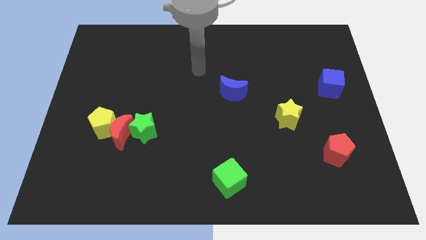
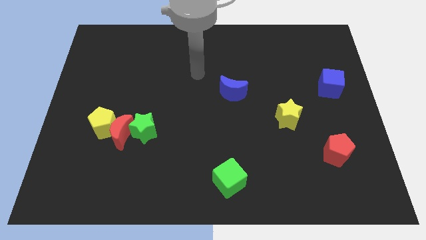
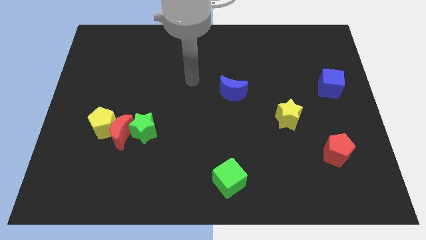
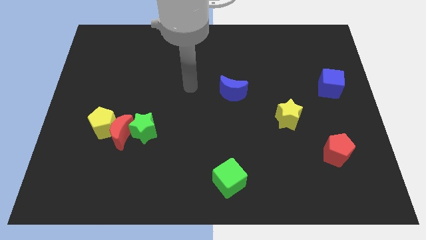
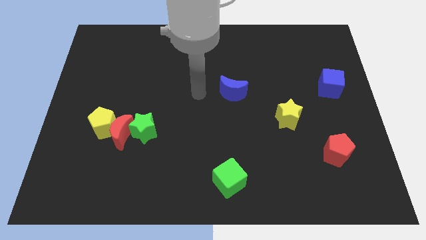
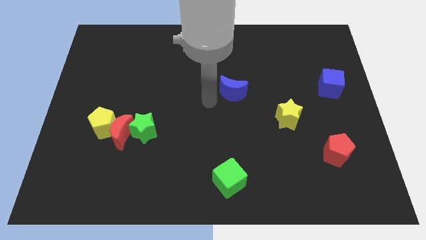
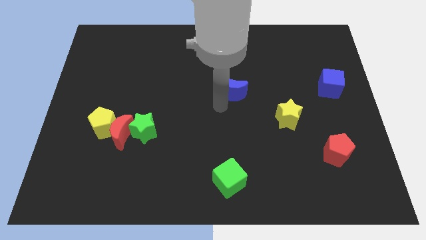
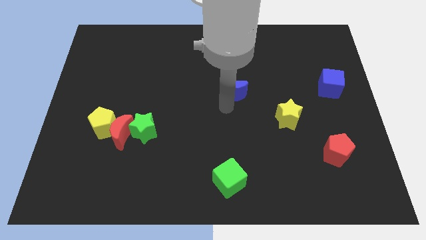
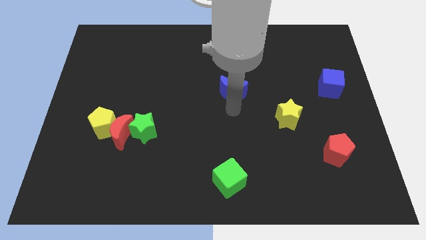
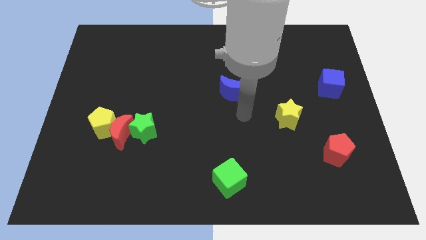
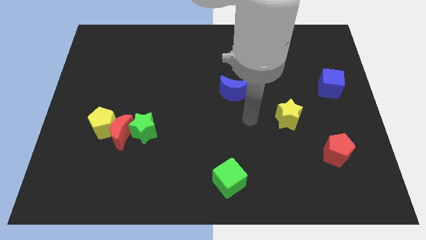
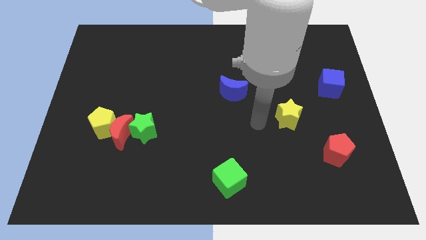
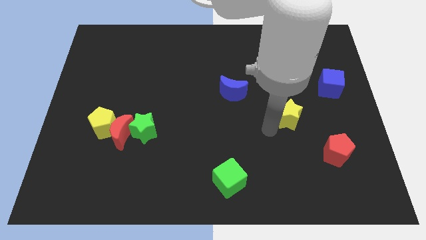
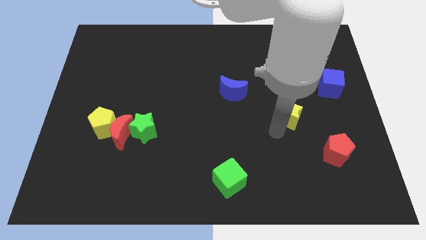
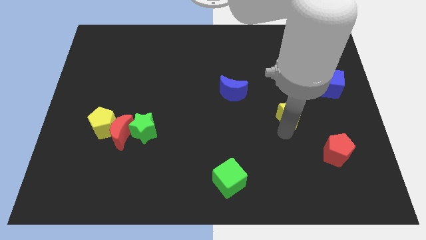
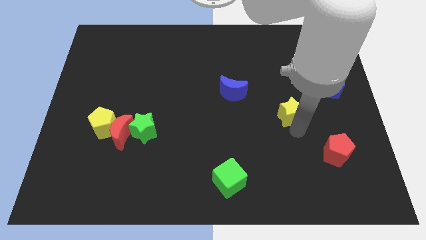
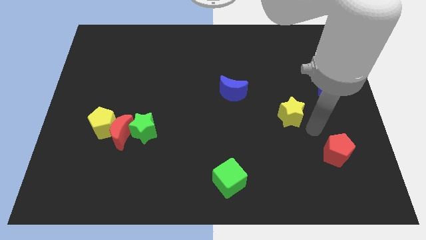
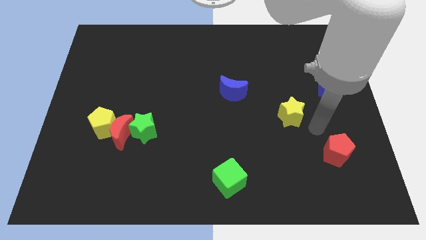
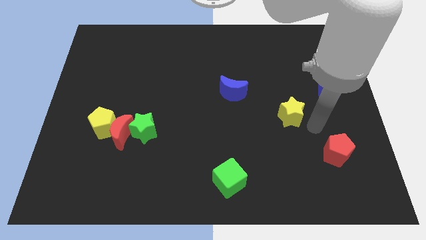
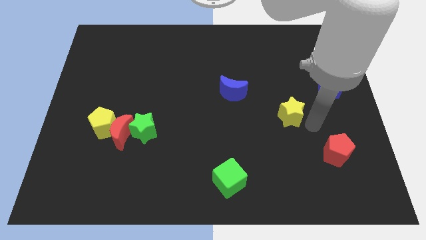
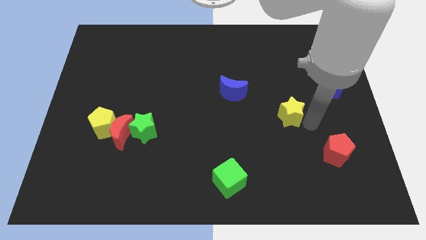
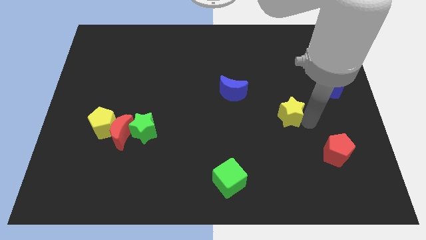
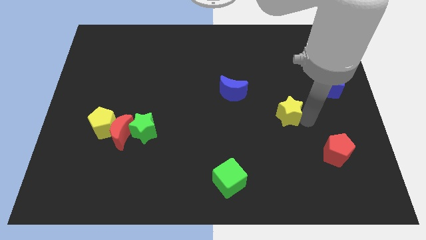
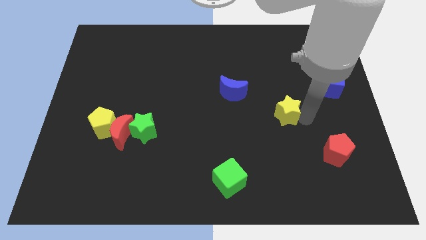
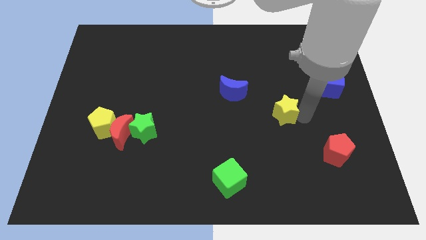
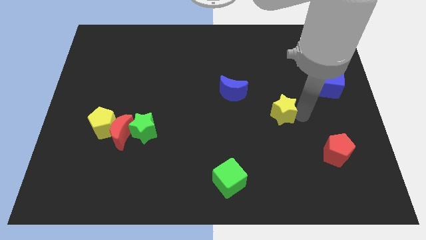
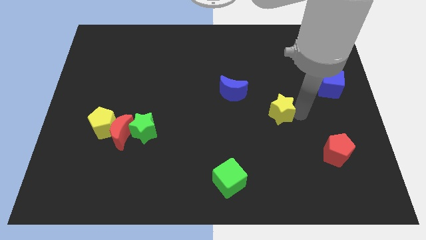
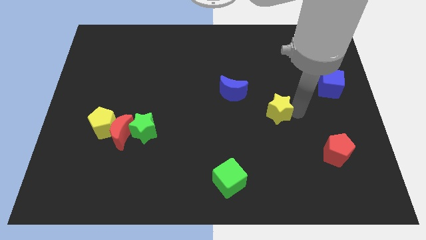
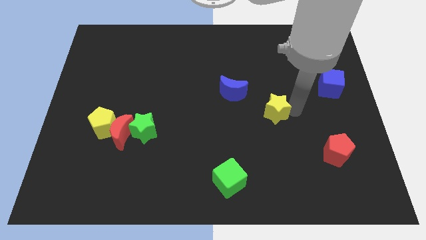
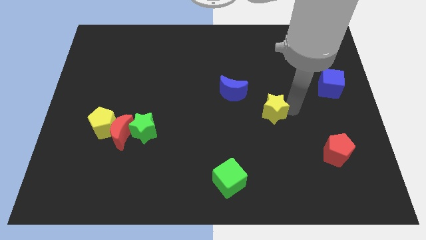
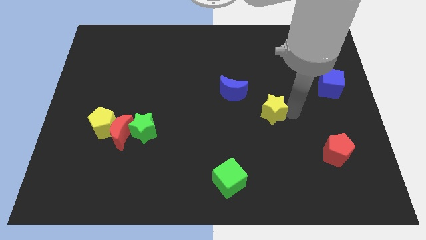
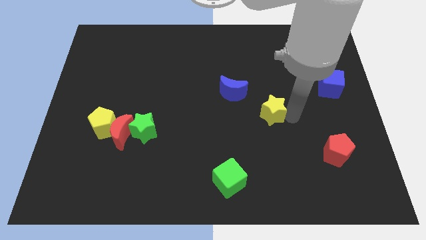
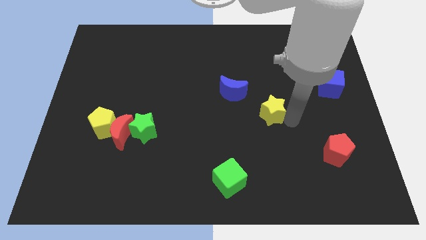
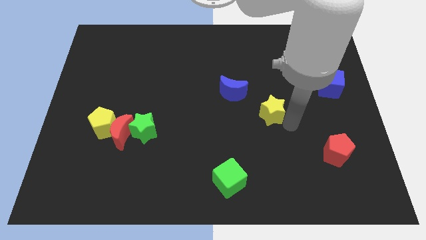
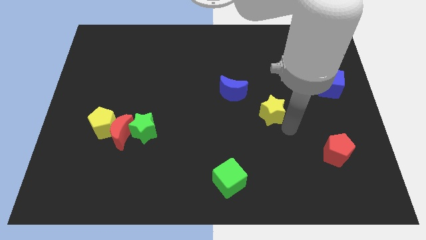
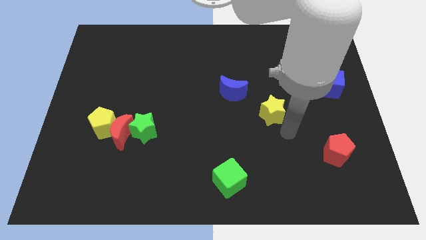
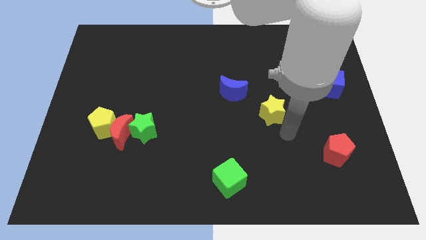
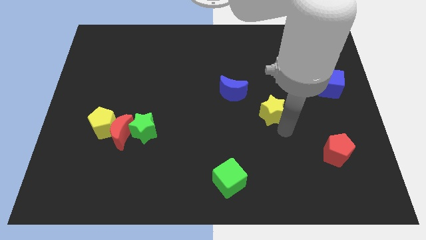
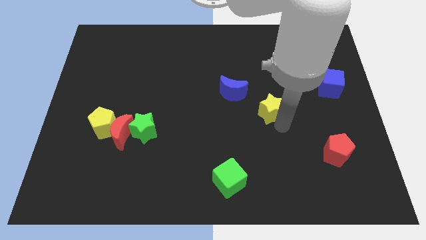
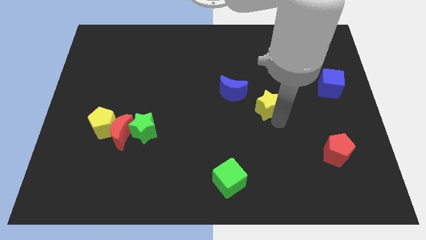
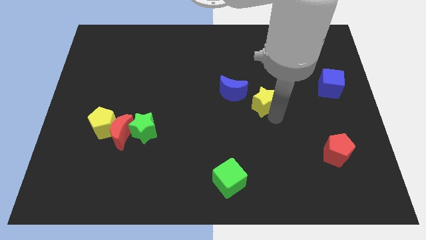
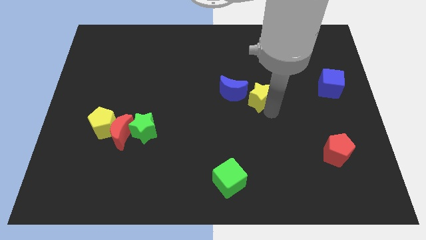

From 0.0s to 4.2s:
slide the yellow star up and left a little bit

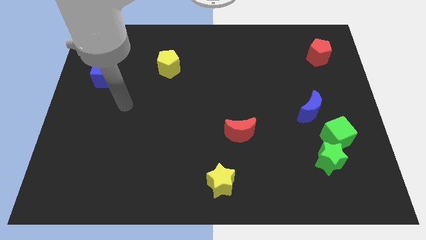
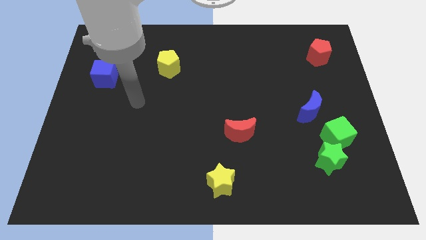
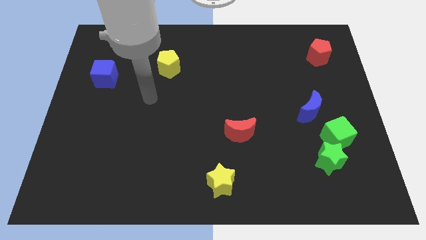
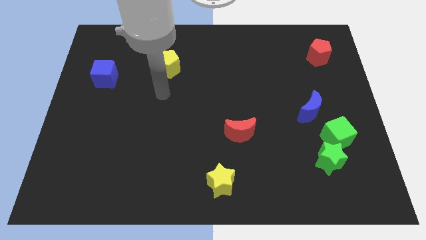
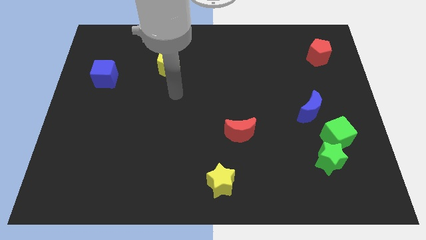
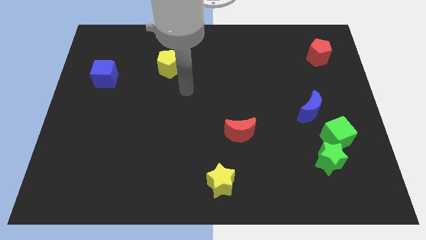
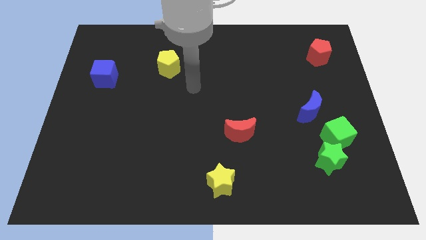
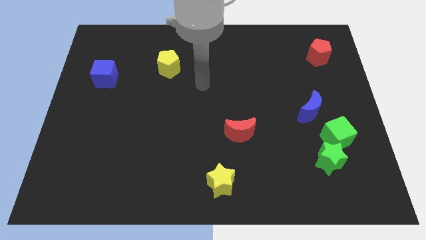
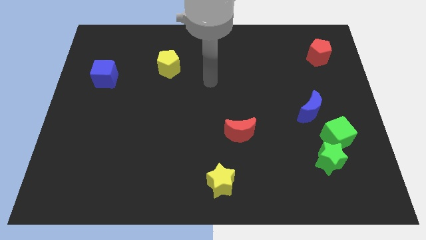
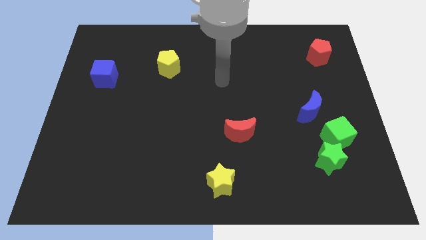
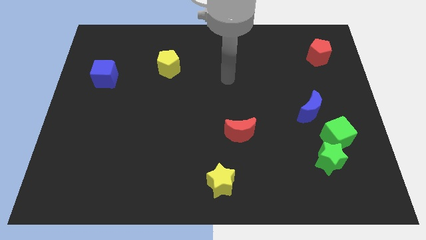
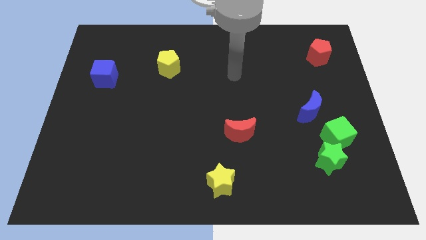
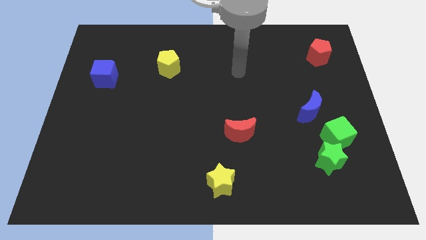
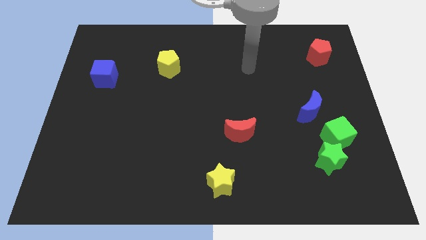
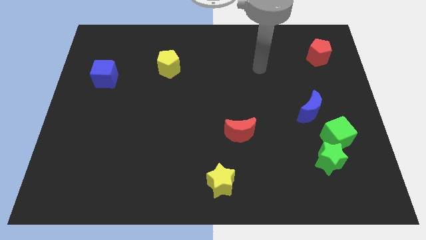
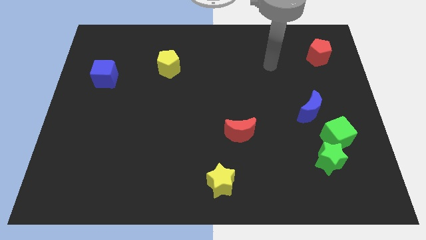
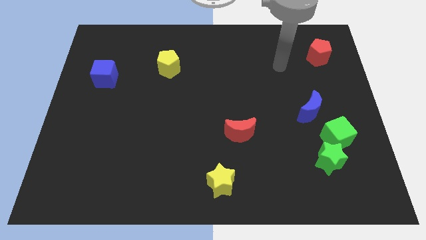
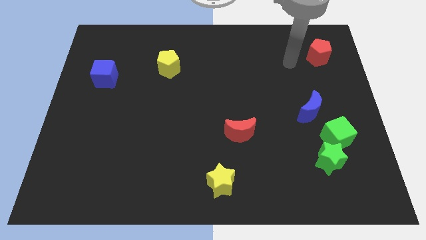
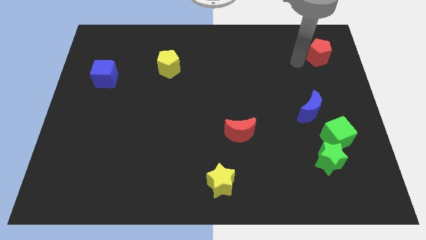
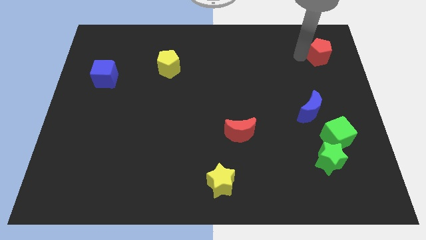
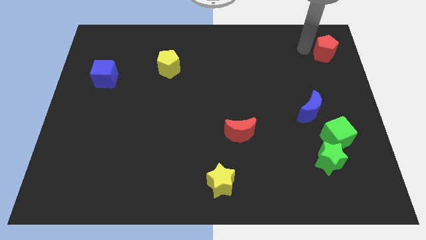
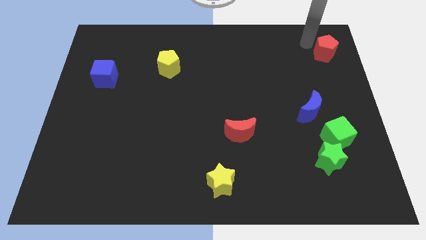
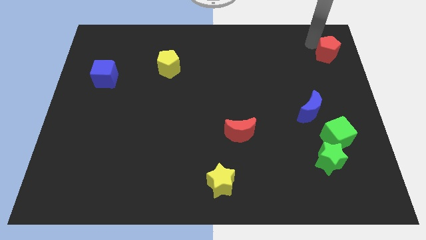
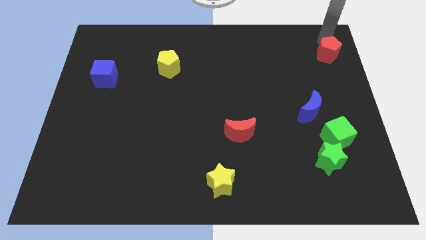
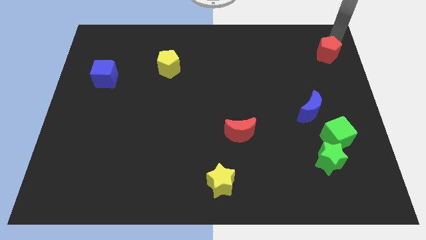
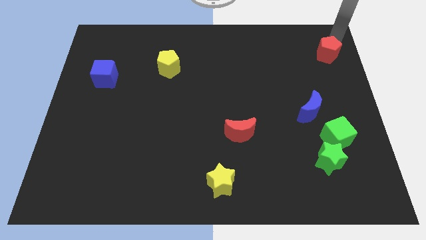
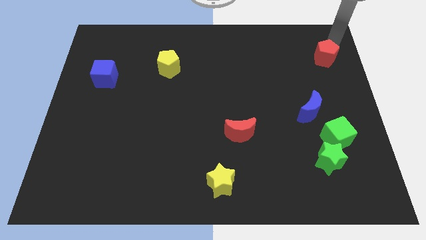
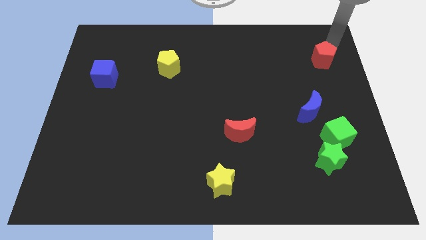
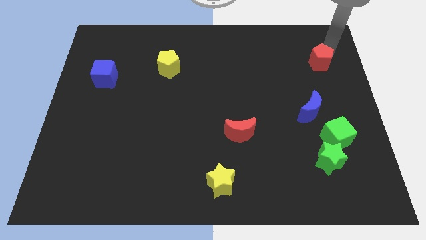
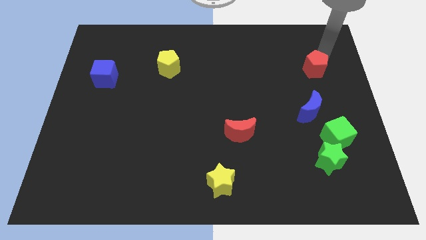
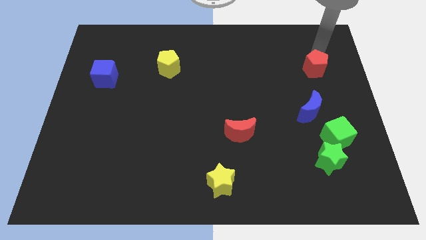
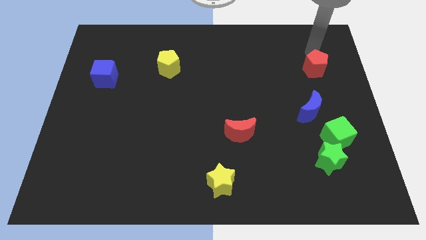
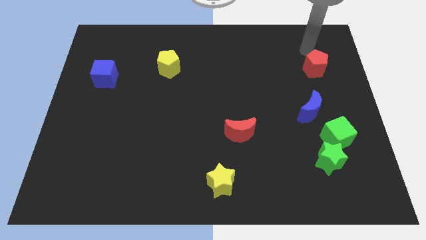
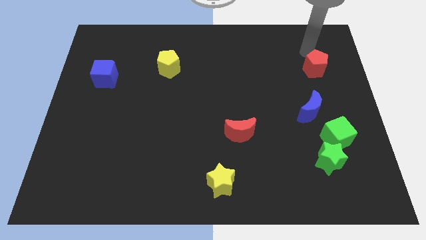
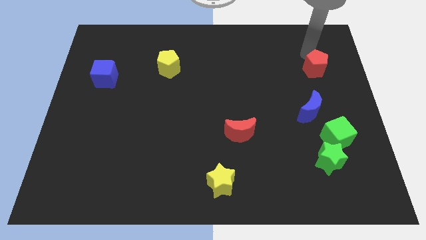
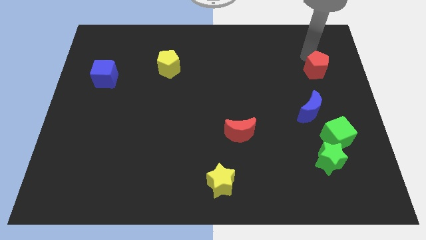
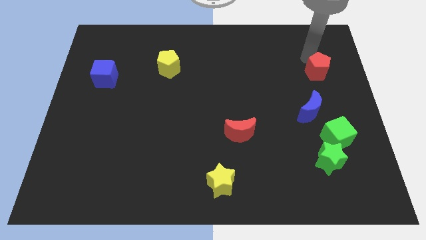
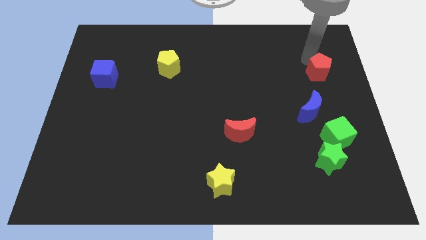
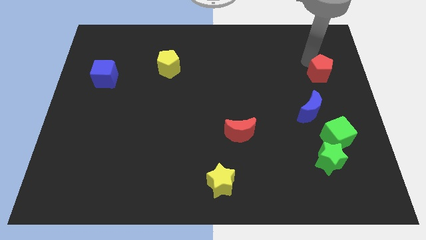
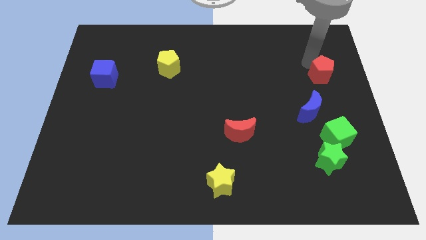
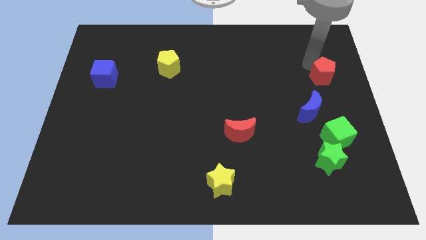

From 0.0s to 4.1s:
move the red pentagon down a little bit

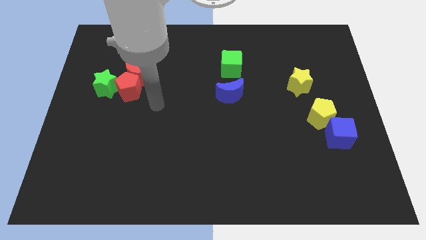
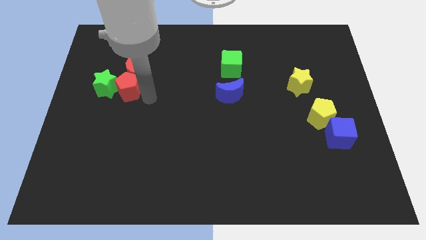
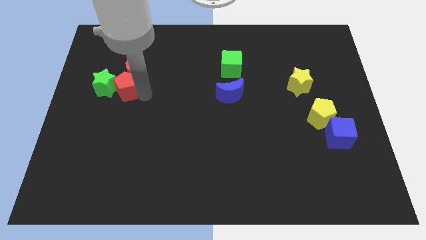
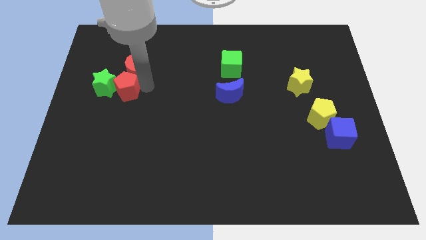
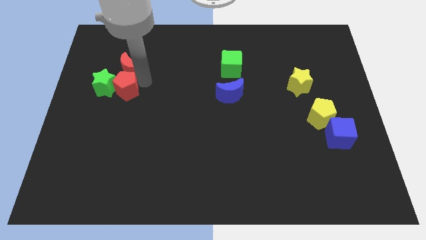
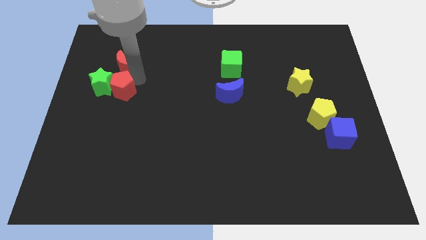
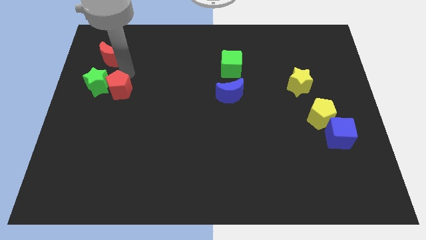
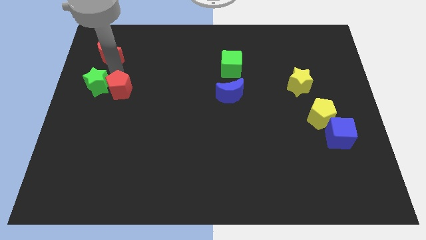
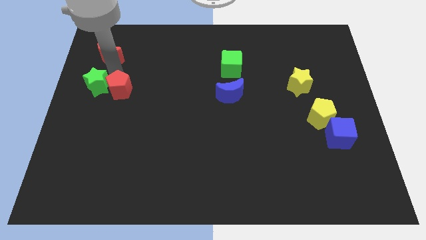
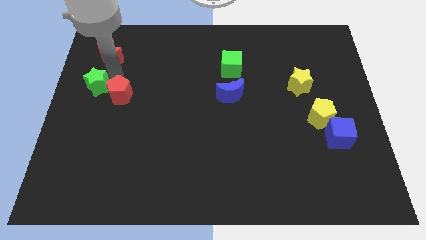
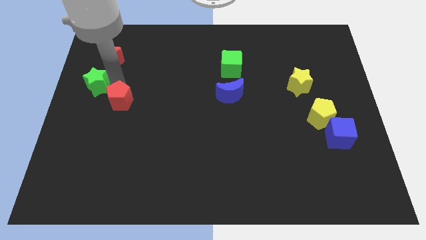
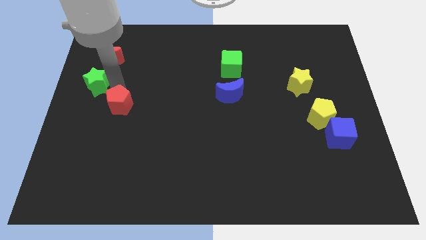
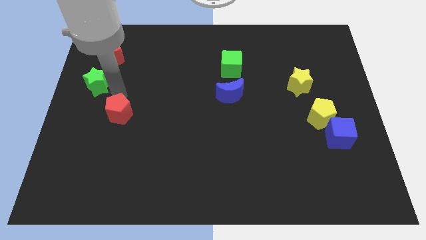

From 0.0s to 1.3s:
move the red pentagon a bit downwards
